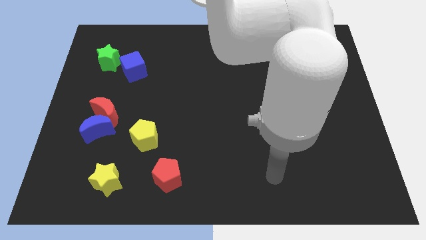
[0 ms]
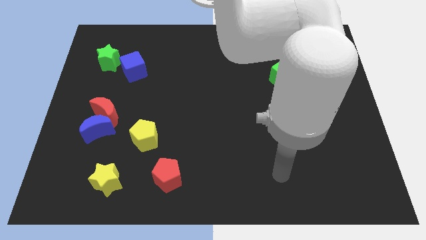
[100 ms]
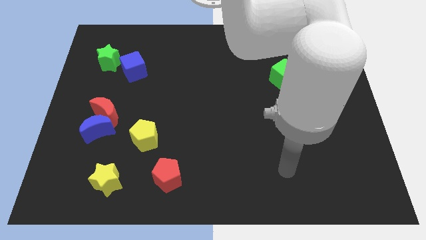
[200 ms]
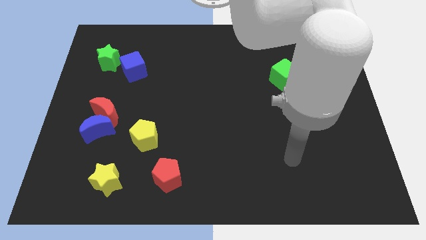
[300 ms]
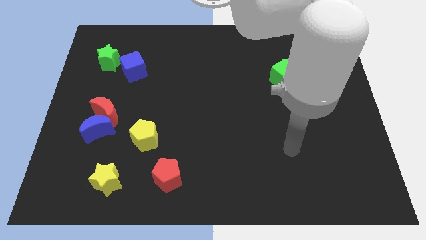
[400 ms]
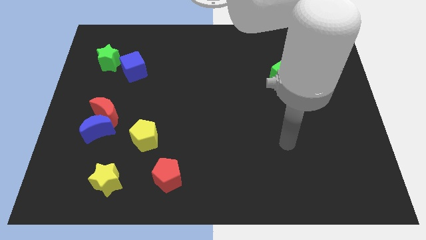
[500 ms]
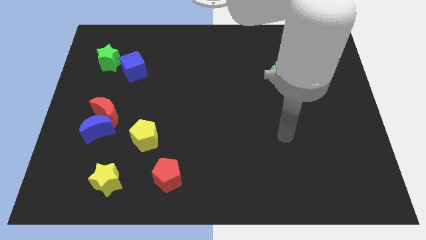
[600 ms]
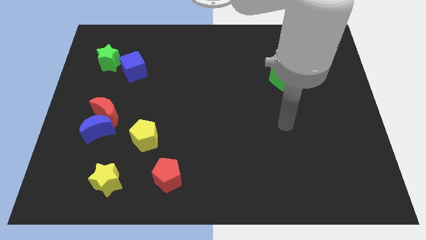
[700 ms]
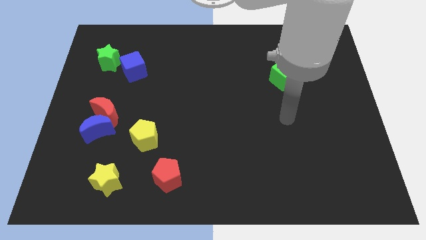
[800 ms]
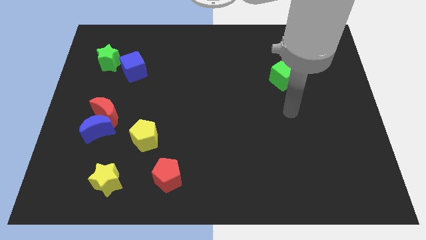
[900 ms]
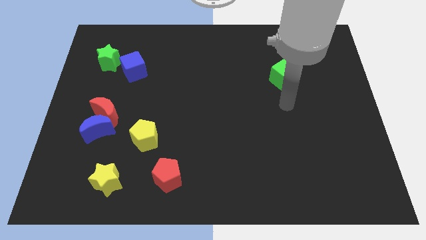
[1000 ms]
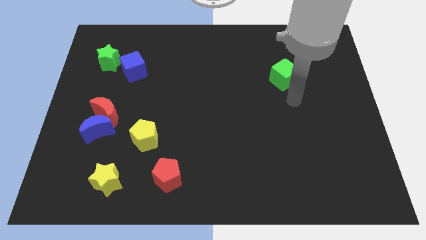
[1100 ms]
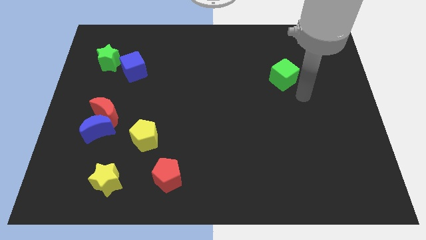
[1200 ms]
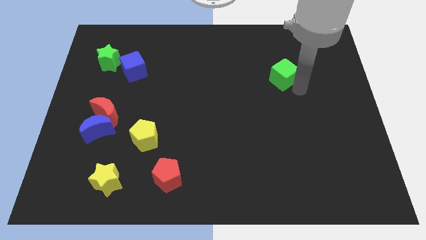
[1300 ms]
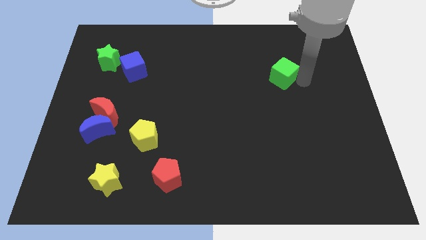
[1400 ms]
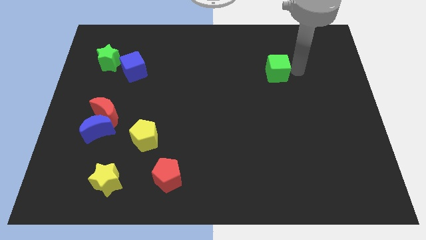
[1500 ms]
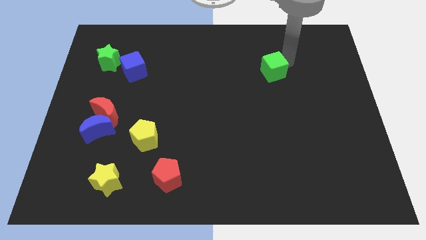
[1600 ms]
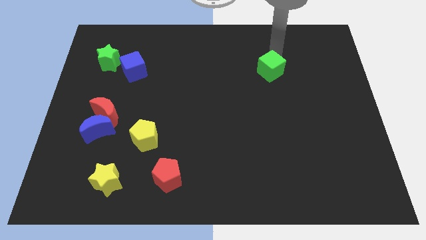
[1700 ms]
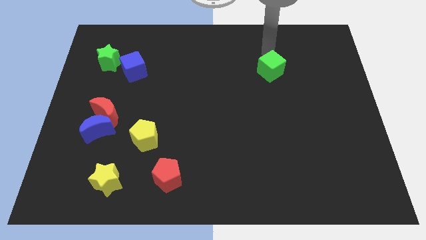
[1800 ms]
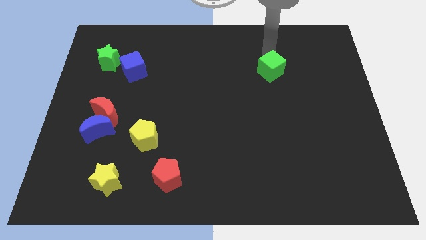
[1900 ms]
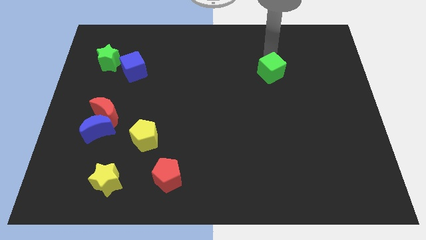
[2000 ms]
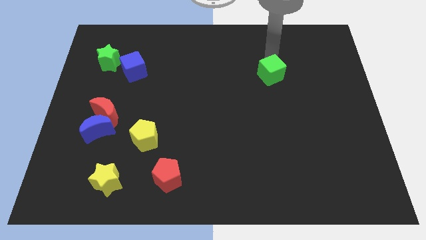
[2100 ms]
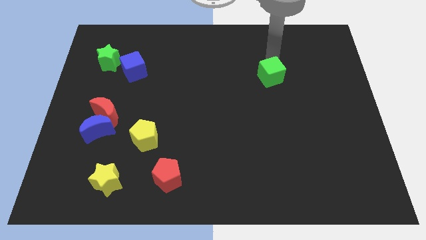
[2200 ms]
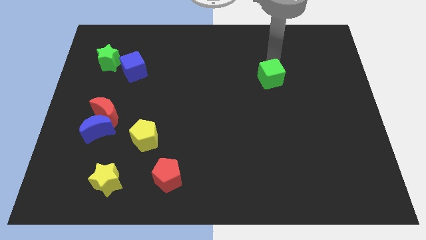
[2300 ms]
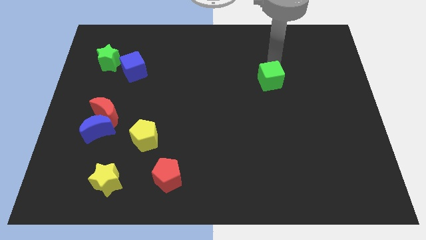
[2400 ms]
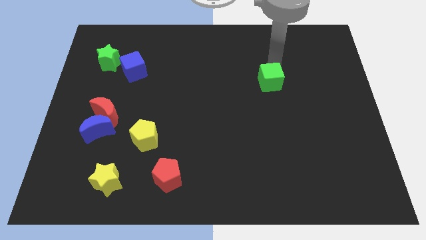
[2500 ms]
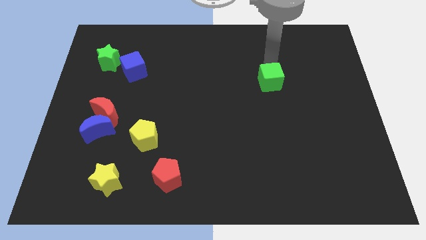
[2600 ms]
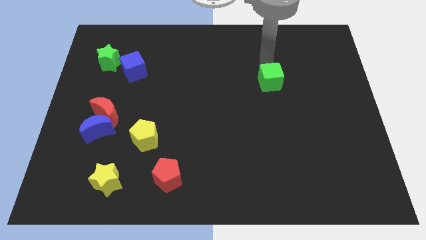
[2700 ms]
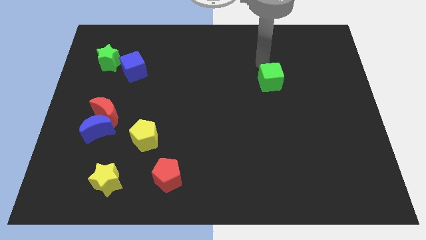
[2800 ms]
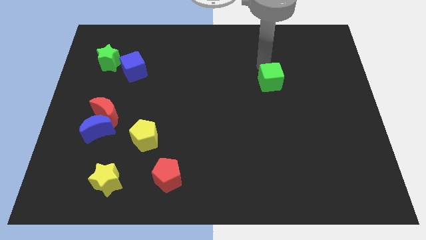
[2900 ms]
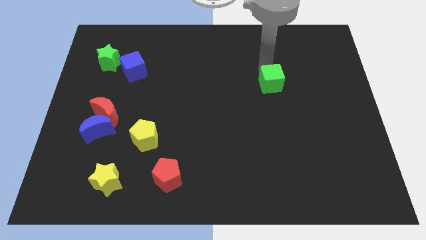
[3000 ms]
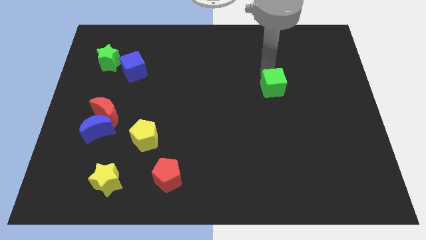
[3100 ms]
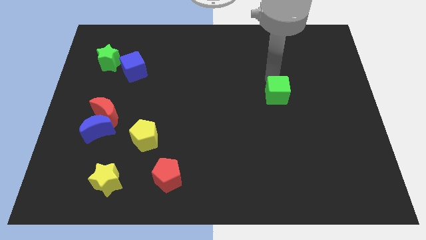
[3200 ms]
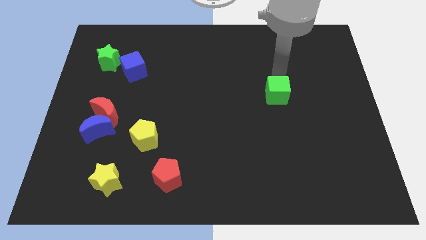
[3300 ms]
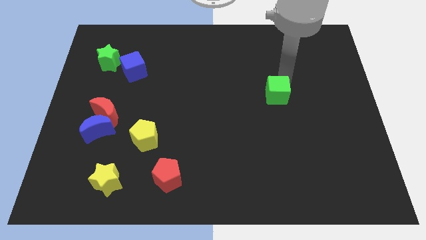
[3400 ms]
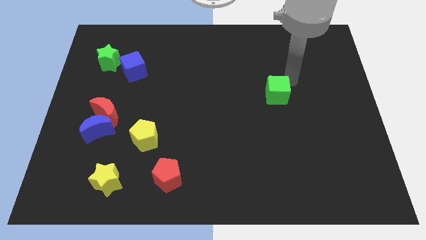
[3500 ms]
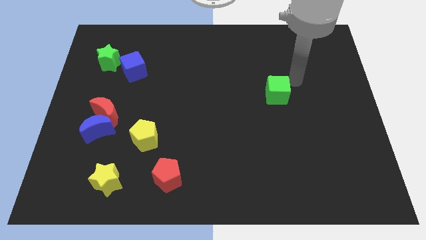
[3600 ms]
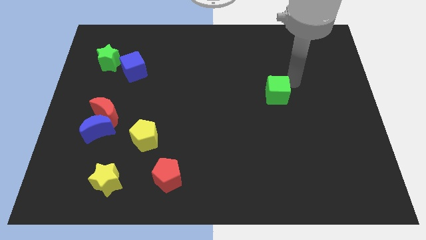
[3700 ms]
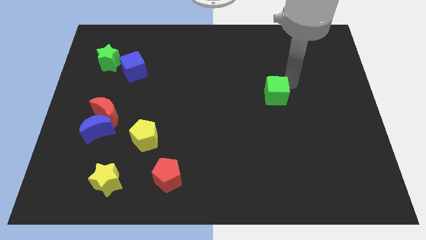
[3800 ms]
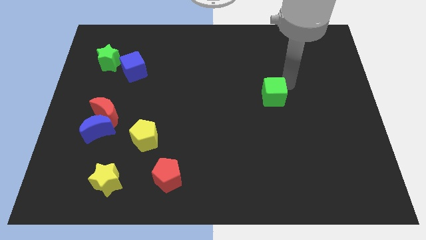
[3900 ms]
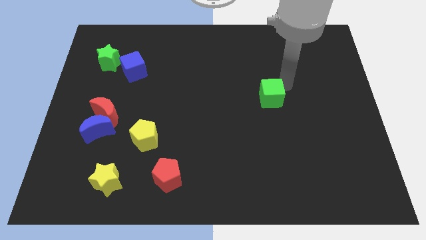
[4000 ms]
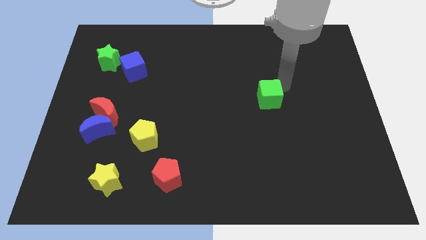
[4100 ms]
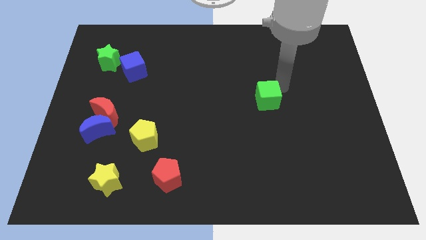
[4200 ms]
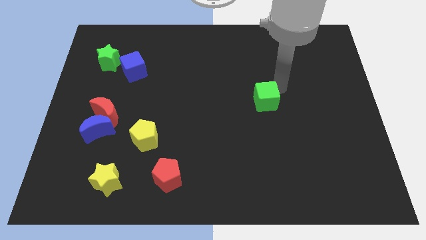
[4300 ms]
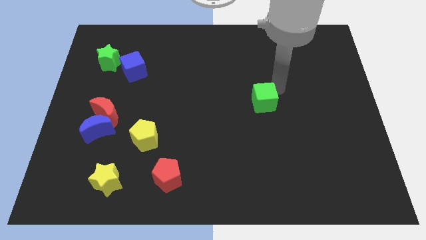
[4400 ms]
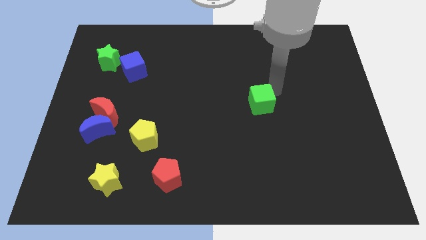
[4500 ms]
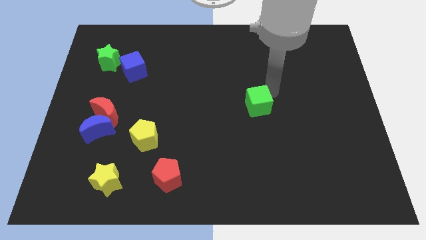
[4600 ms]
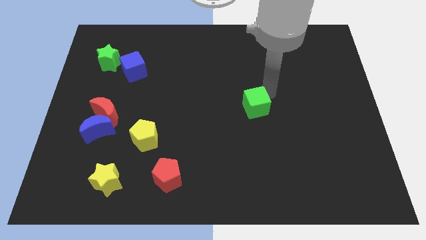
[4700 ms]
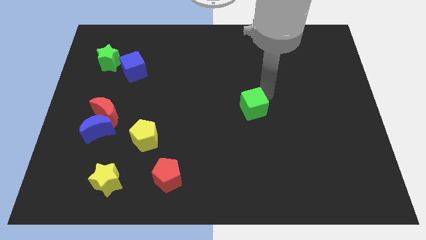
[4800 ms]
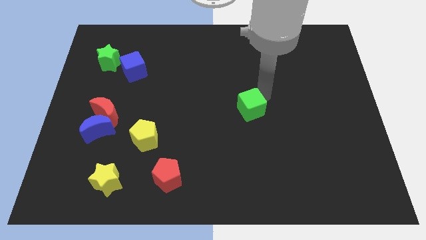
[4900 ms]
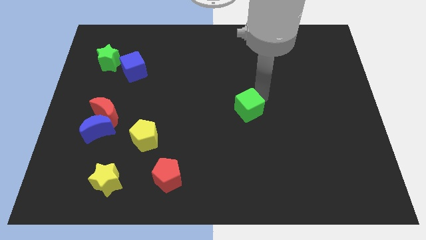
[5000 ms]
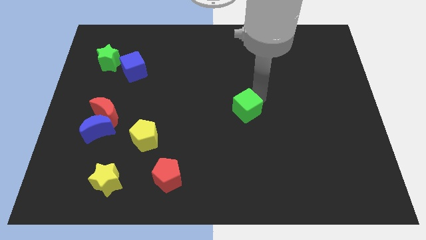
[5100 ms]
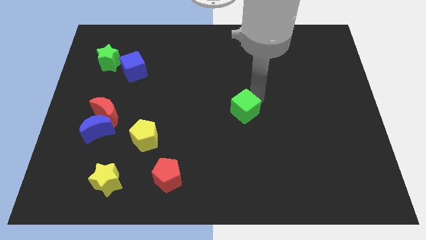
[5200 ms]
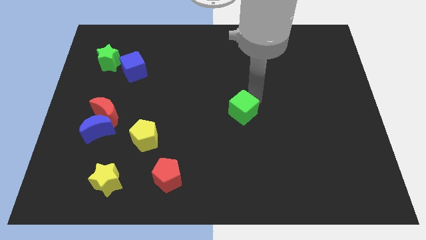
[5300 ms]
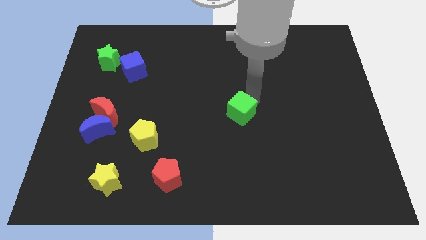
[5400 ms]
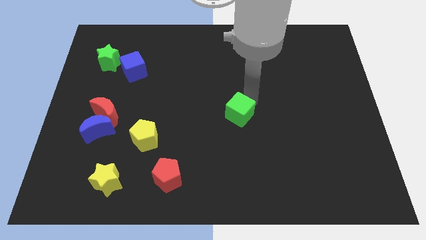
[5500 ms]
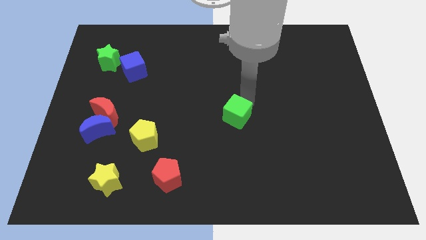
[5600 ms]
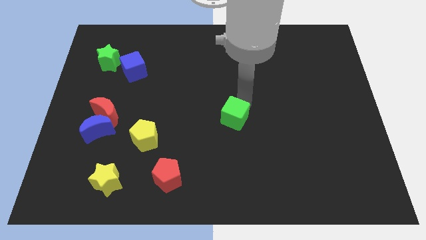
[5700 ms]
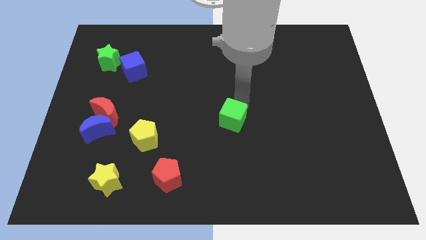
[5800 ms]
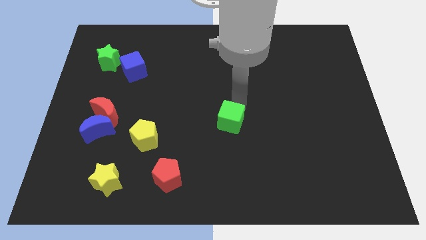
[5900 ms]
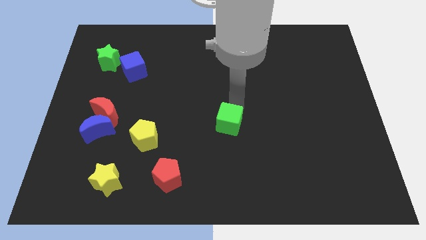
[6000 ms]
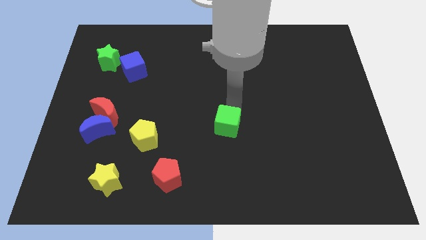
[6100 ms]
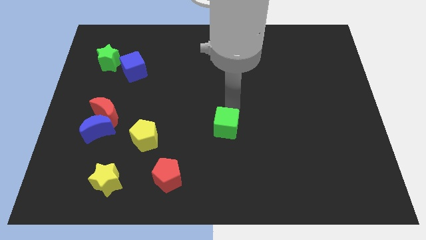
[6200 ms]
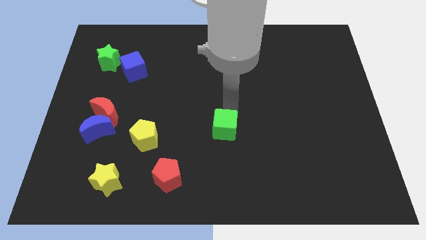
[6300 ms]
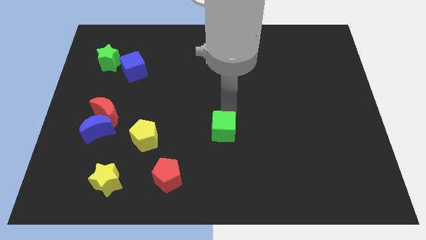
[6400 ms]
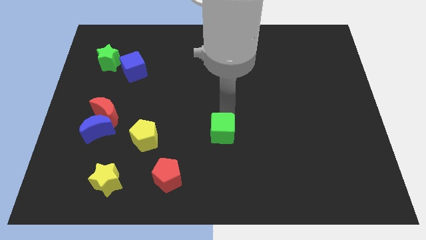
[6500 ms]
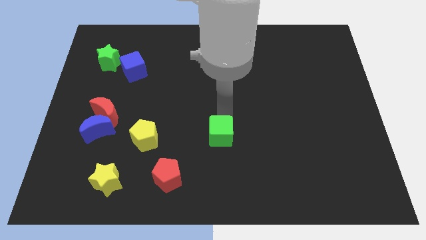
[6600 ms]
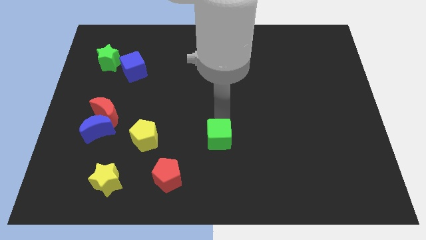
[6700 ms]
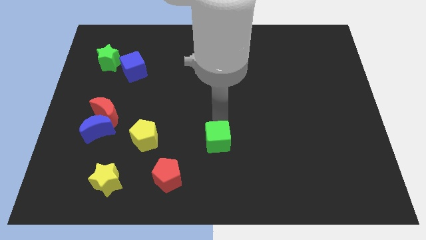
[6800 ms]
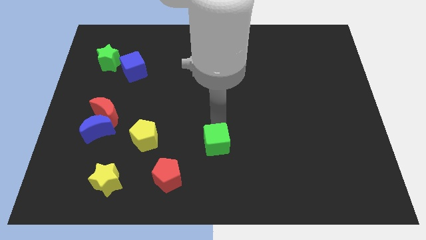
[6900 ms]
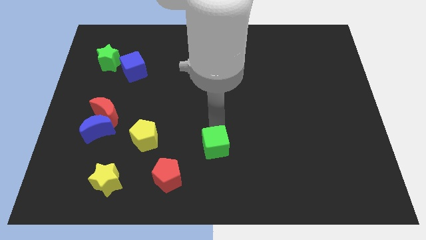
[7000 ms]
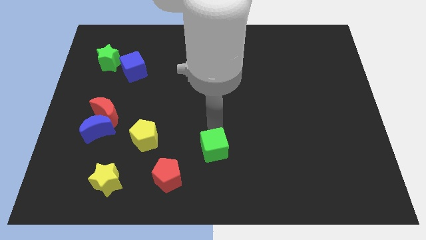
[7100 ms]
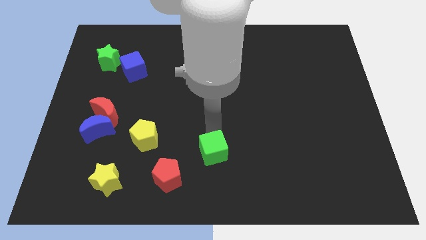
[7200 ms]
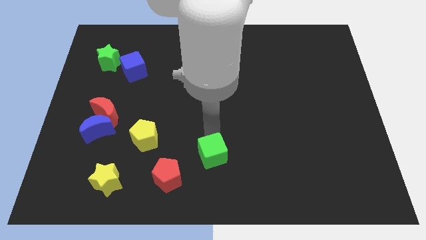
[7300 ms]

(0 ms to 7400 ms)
push the green cube to the bottom
